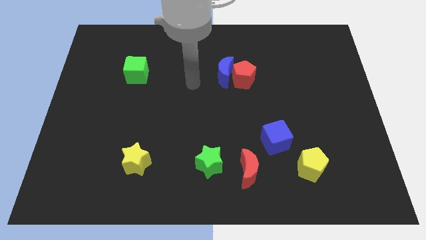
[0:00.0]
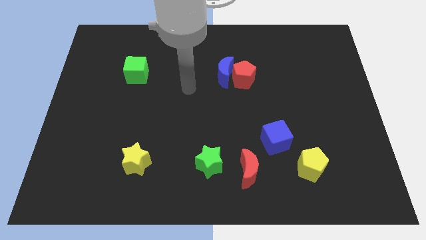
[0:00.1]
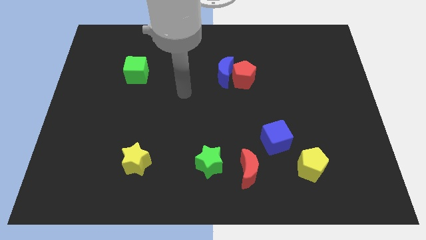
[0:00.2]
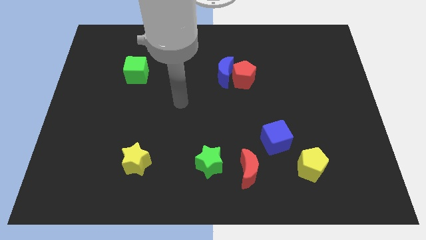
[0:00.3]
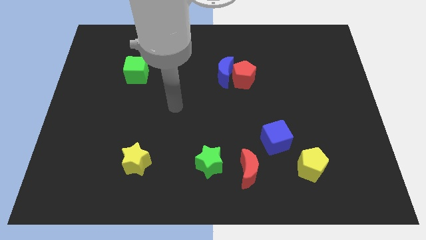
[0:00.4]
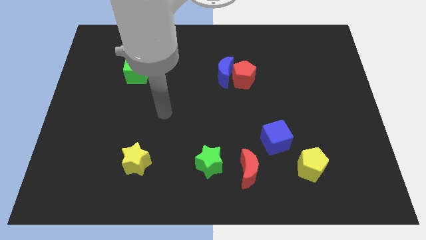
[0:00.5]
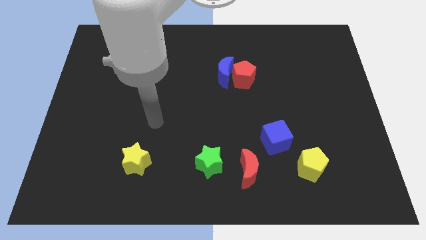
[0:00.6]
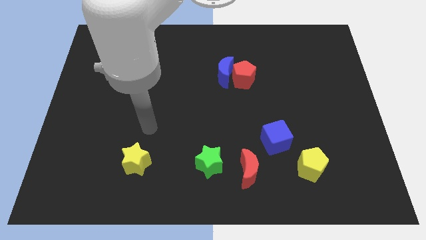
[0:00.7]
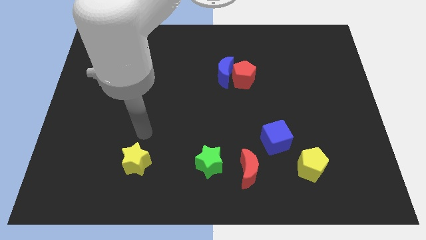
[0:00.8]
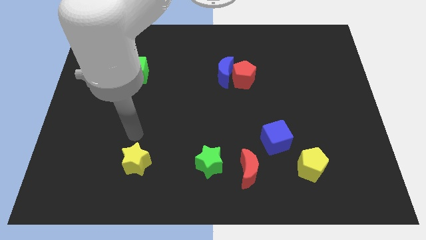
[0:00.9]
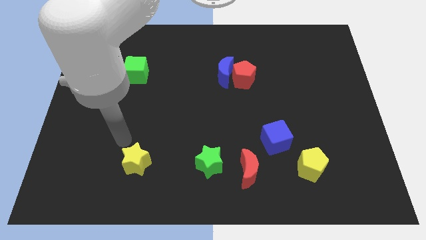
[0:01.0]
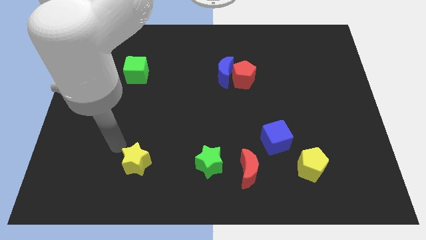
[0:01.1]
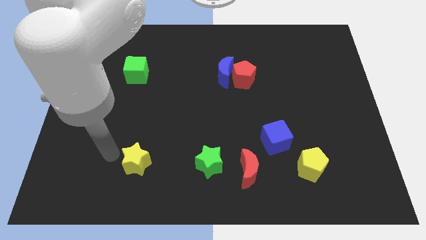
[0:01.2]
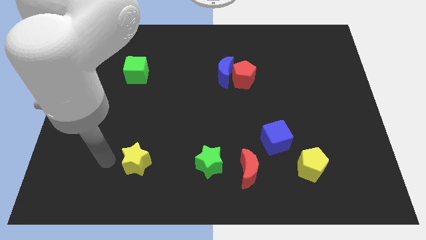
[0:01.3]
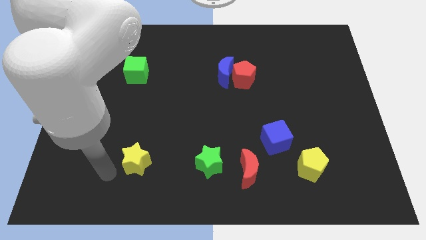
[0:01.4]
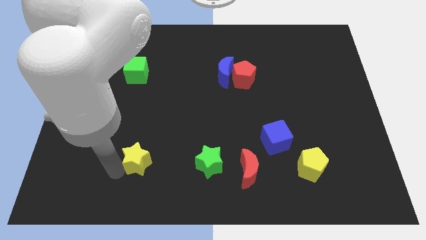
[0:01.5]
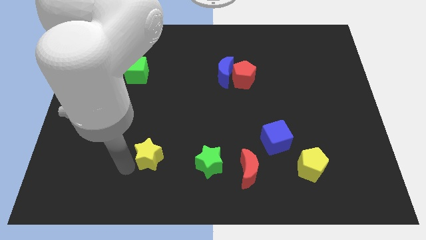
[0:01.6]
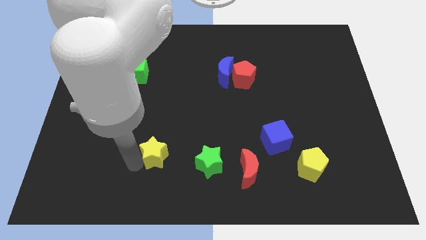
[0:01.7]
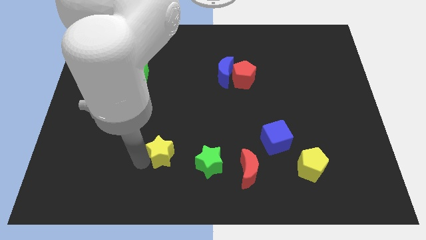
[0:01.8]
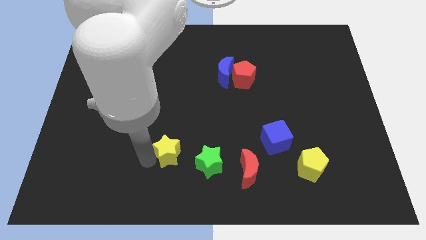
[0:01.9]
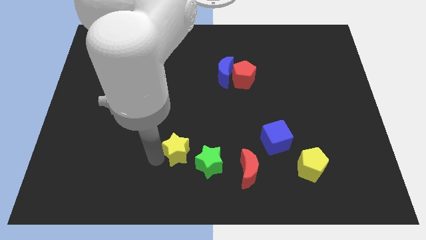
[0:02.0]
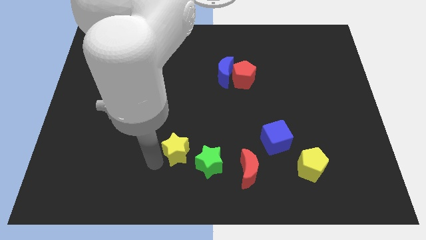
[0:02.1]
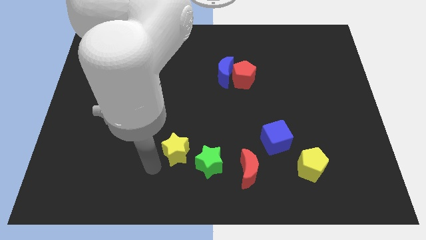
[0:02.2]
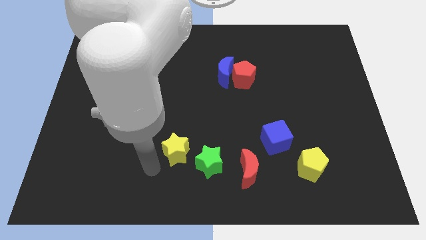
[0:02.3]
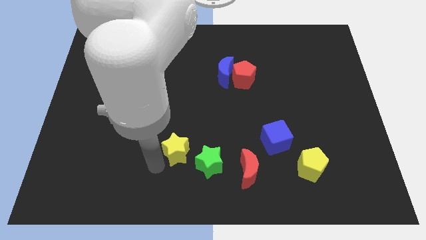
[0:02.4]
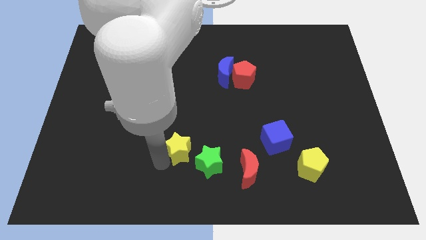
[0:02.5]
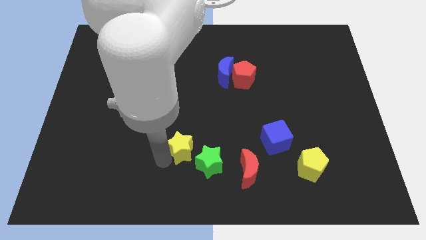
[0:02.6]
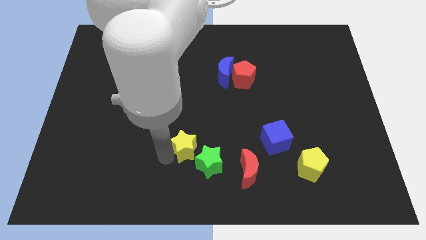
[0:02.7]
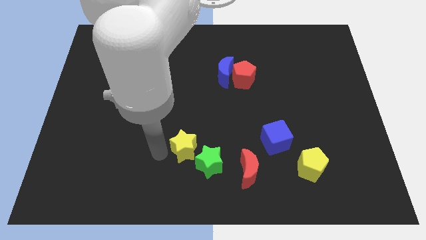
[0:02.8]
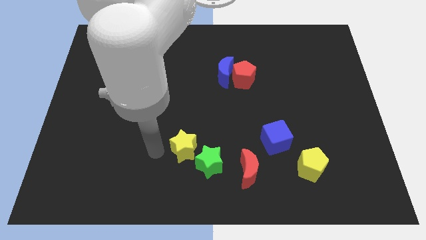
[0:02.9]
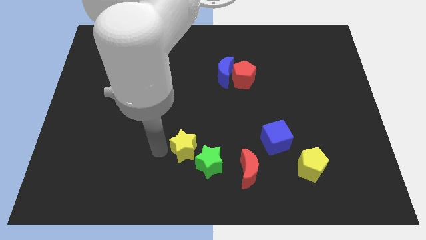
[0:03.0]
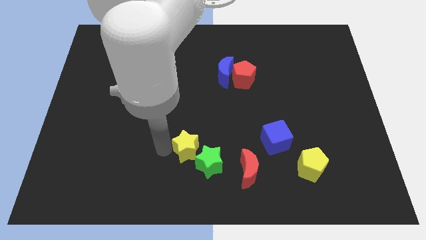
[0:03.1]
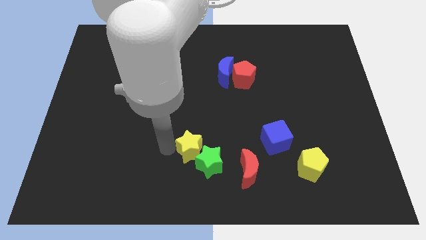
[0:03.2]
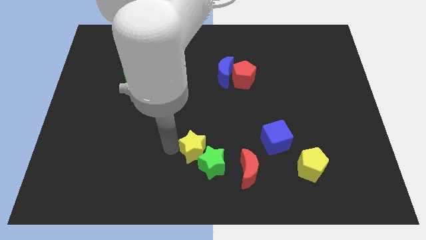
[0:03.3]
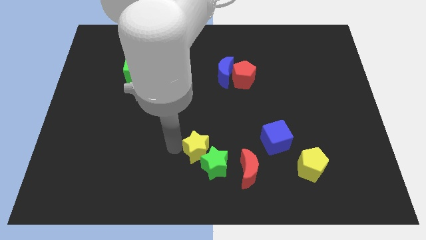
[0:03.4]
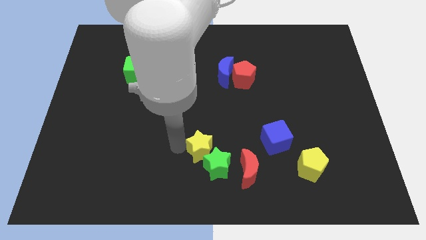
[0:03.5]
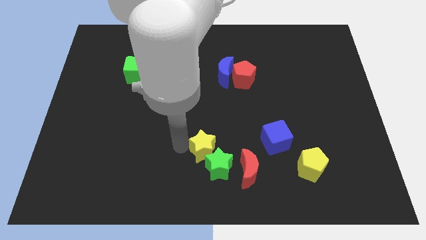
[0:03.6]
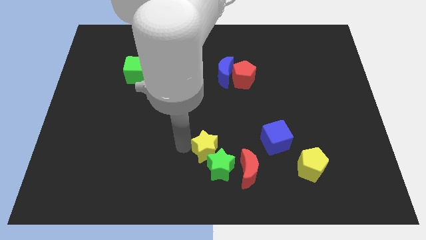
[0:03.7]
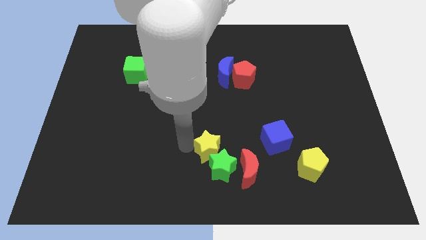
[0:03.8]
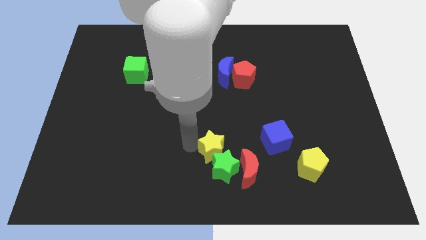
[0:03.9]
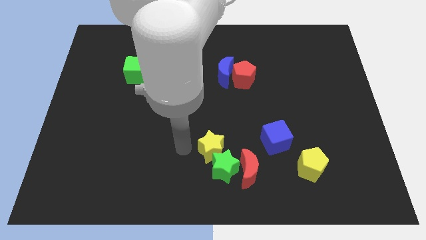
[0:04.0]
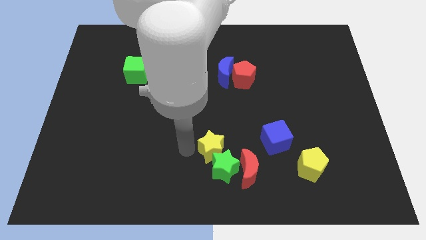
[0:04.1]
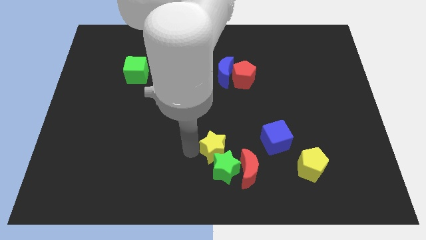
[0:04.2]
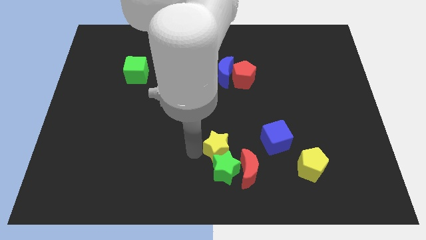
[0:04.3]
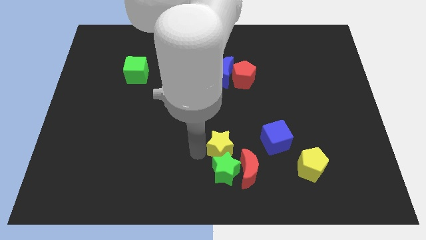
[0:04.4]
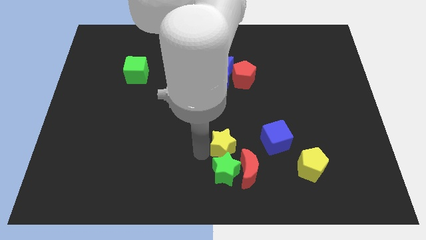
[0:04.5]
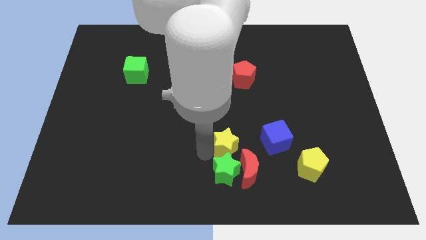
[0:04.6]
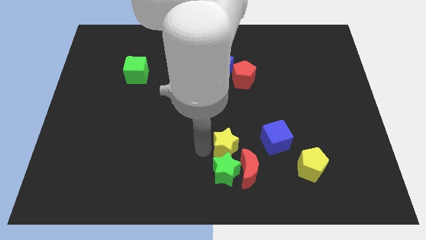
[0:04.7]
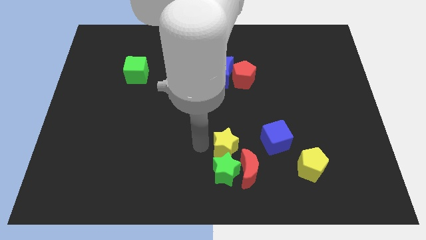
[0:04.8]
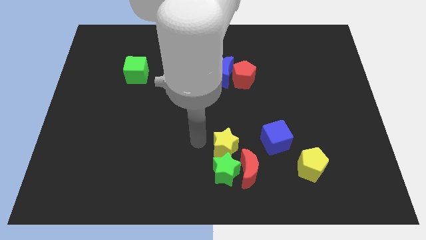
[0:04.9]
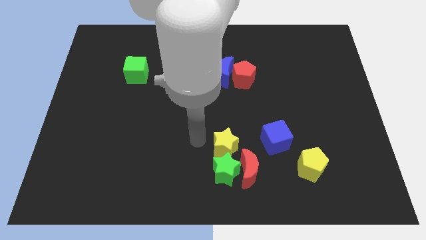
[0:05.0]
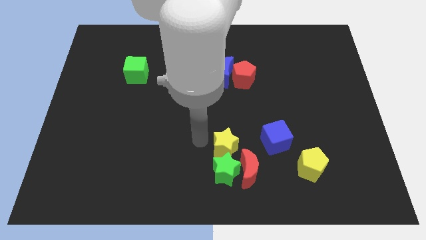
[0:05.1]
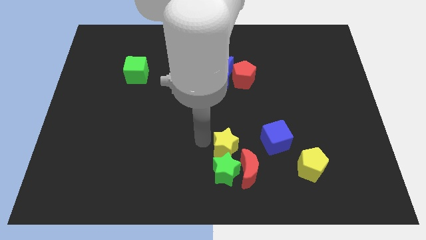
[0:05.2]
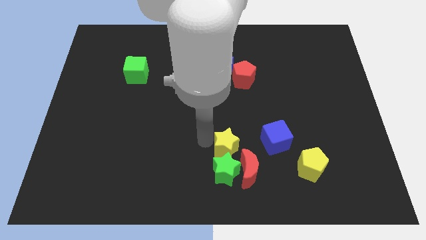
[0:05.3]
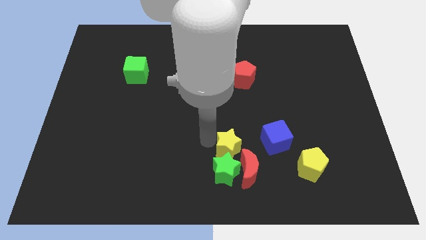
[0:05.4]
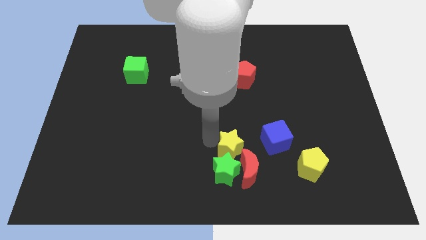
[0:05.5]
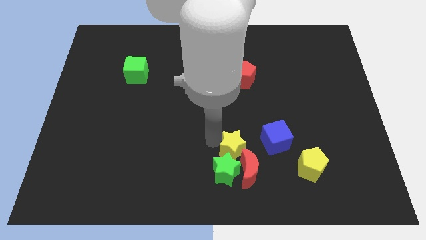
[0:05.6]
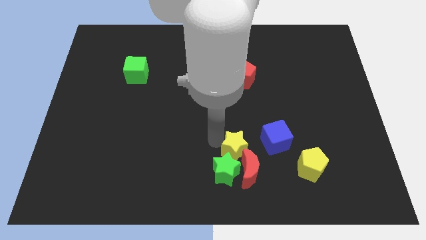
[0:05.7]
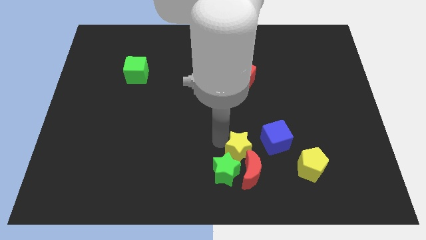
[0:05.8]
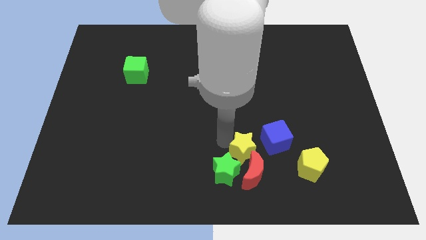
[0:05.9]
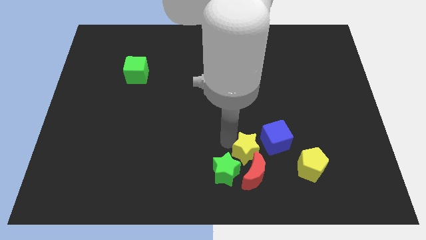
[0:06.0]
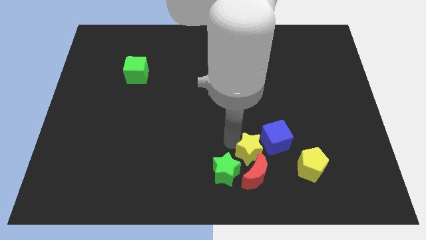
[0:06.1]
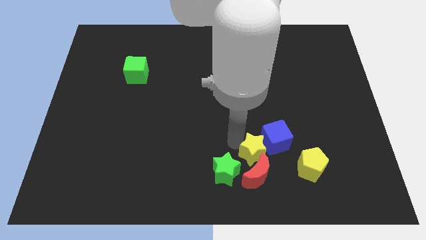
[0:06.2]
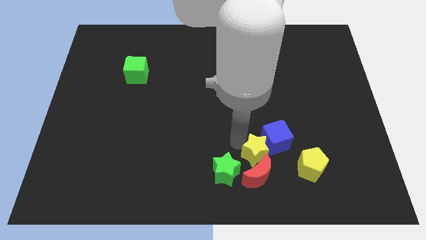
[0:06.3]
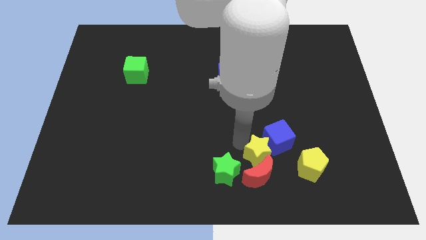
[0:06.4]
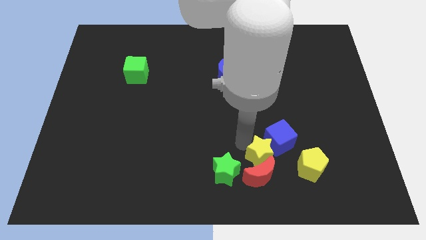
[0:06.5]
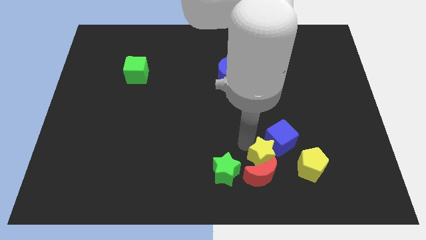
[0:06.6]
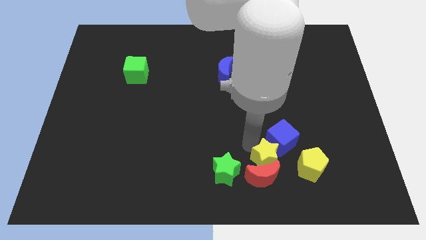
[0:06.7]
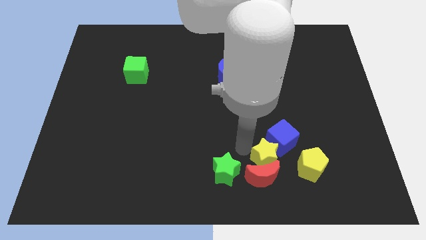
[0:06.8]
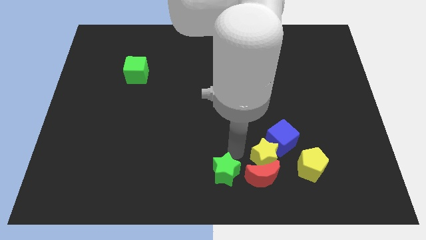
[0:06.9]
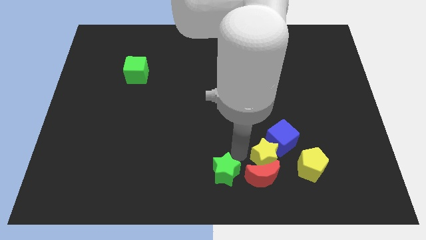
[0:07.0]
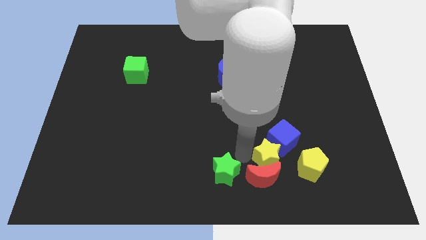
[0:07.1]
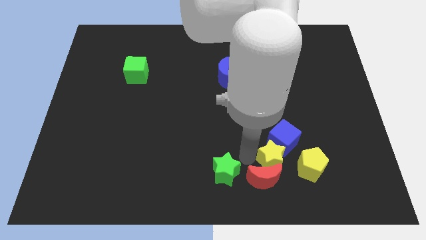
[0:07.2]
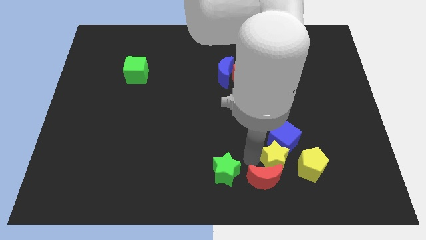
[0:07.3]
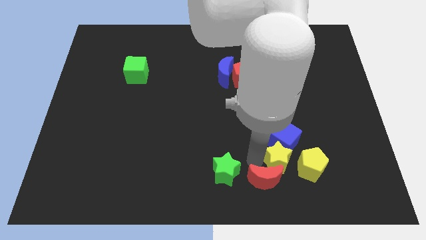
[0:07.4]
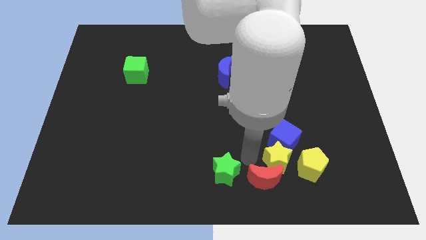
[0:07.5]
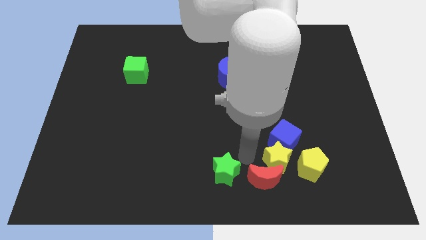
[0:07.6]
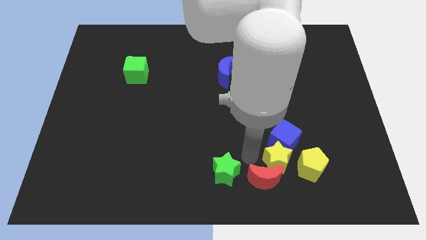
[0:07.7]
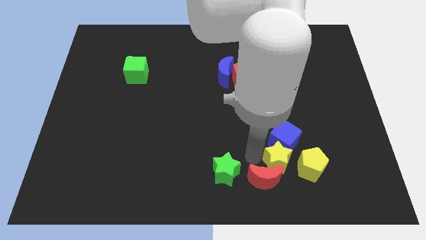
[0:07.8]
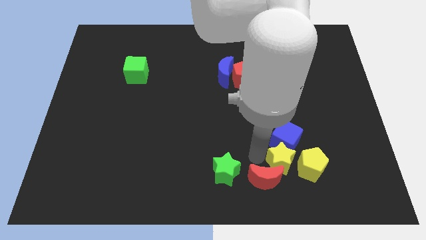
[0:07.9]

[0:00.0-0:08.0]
slide the yellow star close to the yellow pentagon
